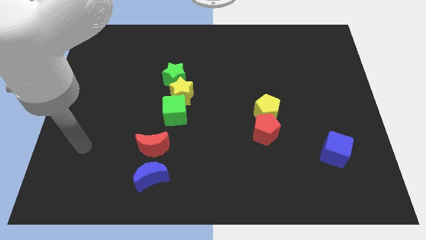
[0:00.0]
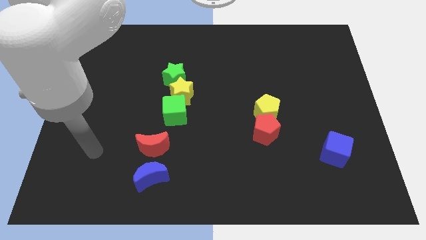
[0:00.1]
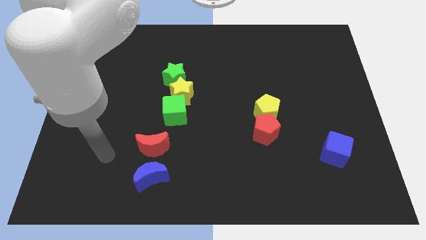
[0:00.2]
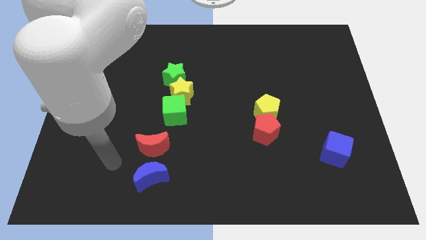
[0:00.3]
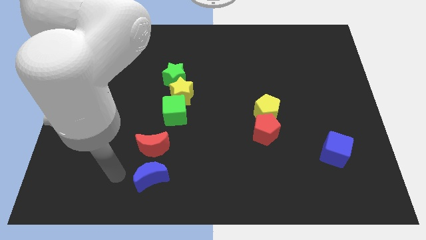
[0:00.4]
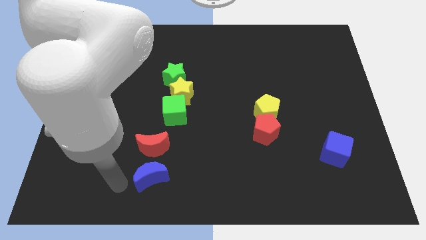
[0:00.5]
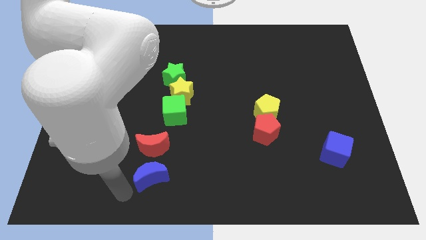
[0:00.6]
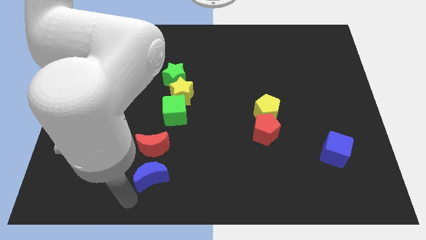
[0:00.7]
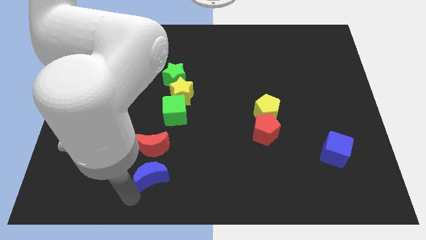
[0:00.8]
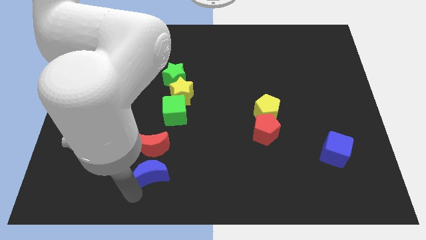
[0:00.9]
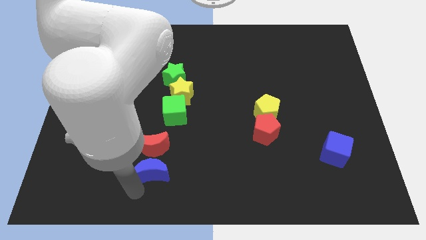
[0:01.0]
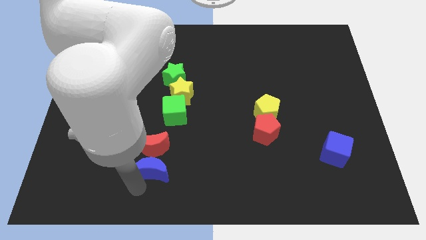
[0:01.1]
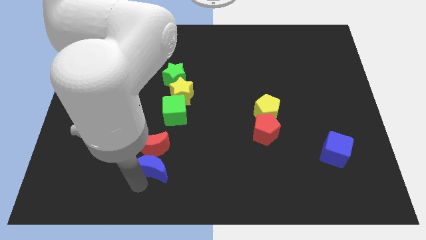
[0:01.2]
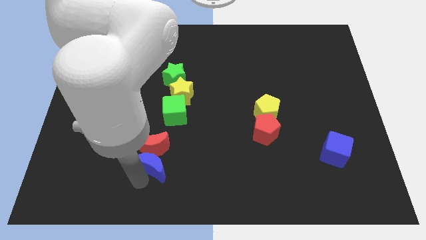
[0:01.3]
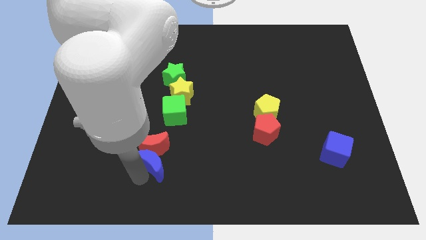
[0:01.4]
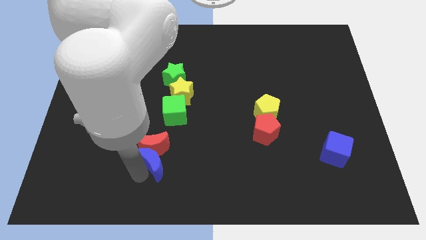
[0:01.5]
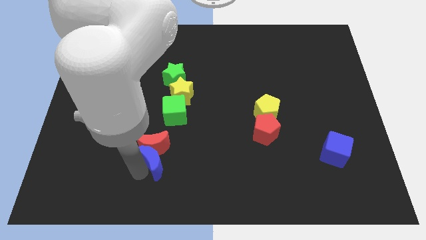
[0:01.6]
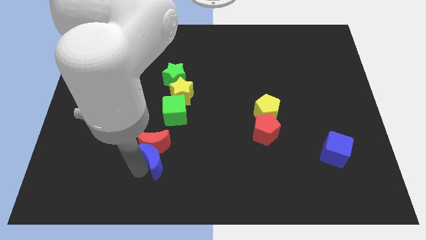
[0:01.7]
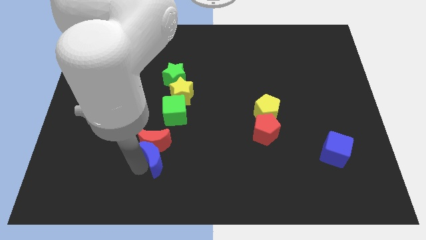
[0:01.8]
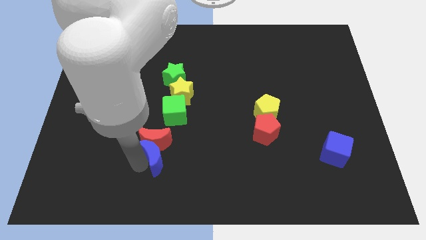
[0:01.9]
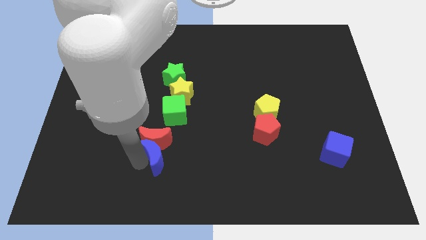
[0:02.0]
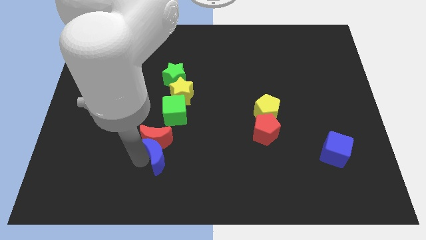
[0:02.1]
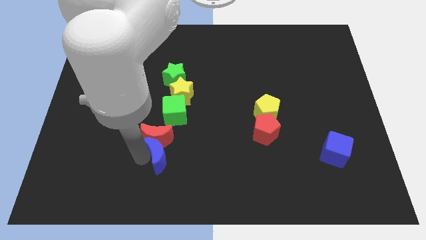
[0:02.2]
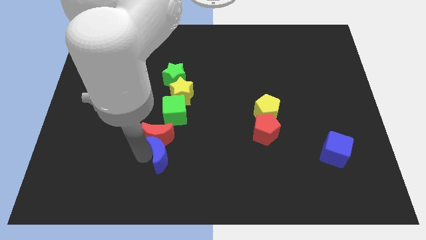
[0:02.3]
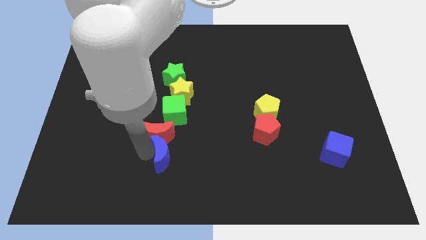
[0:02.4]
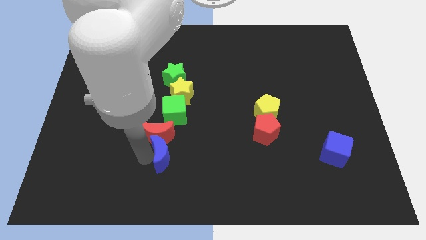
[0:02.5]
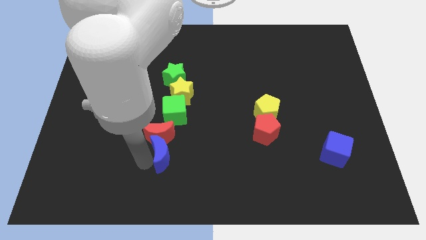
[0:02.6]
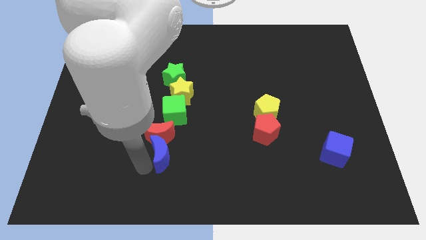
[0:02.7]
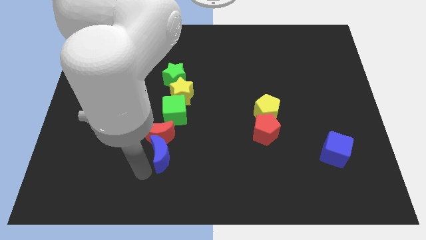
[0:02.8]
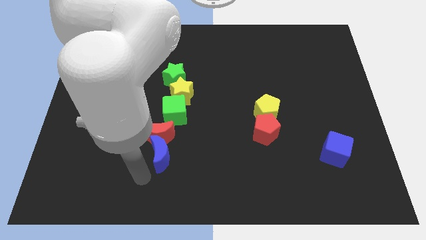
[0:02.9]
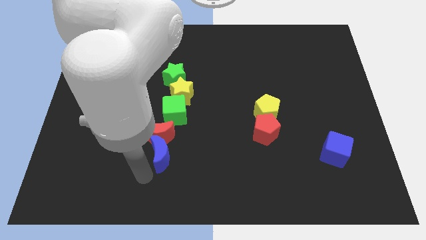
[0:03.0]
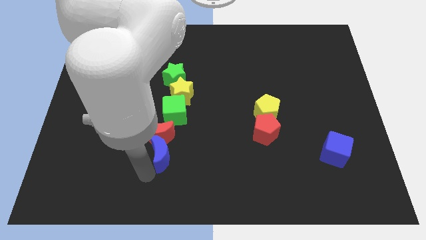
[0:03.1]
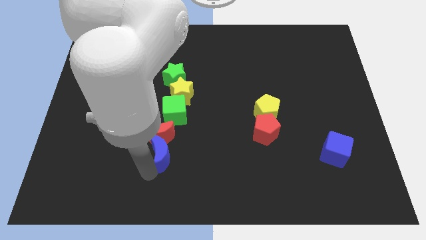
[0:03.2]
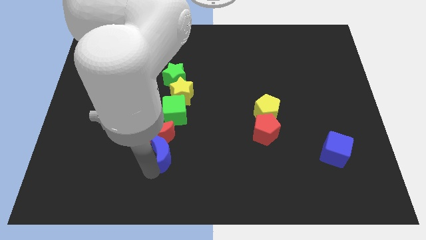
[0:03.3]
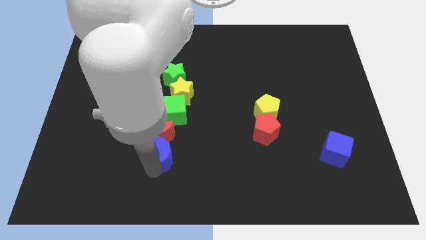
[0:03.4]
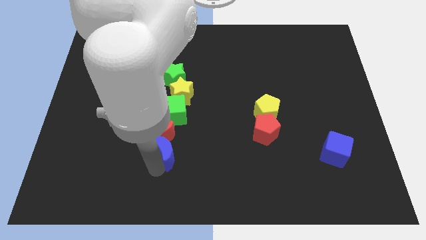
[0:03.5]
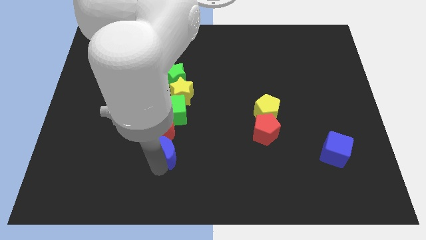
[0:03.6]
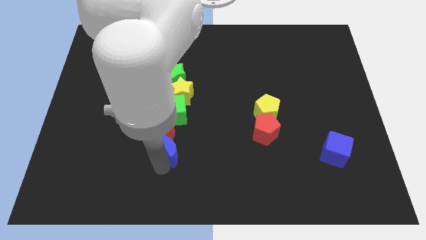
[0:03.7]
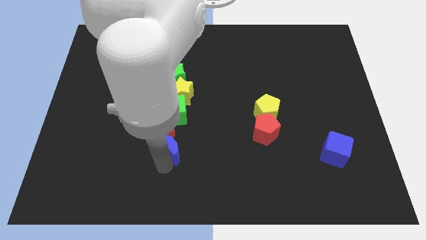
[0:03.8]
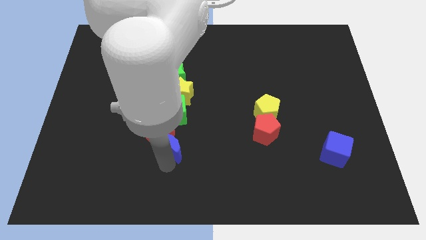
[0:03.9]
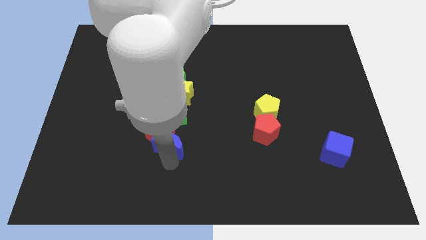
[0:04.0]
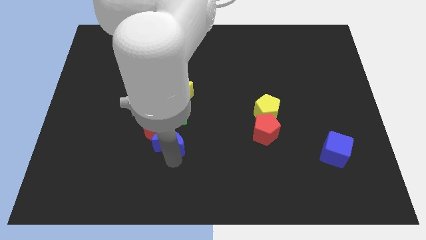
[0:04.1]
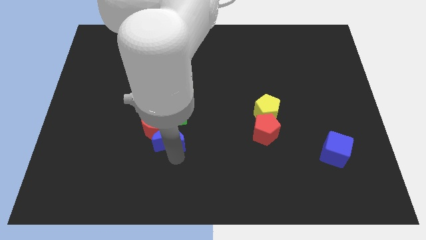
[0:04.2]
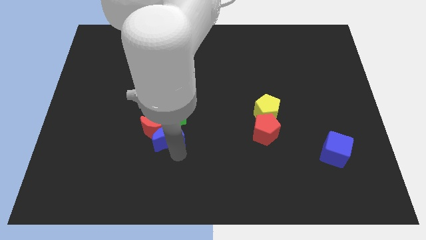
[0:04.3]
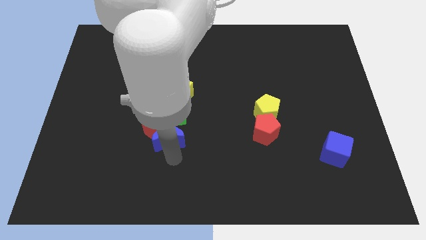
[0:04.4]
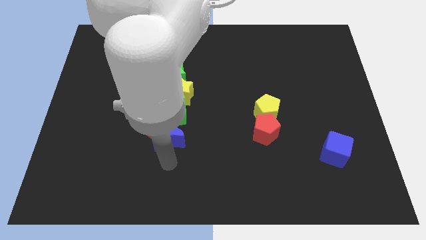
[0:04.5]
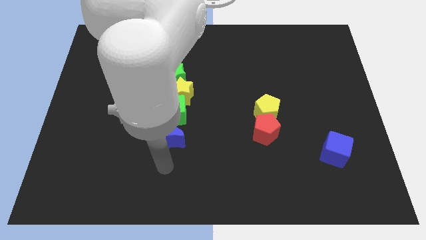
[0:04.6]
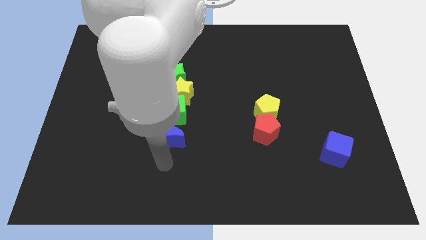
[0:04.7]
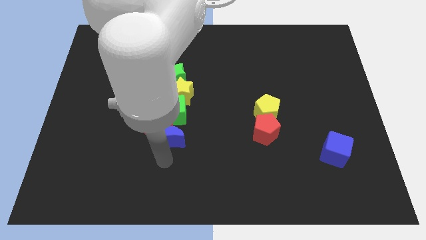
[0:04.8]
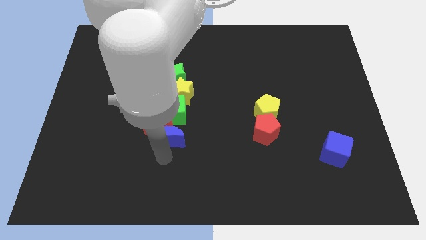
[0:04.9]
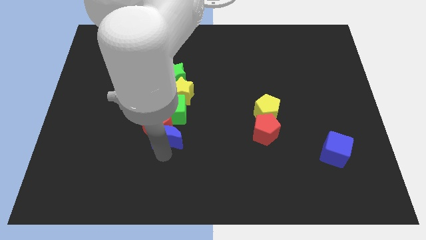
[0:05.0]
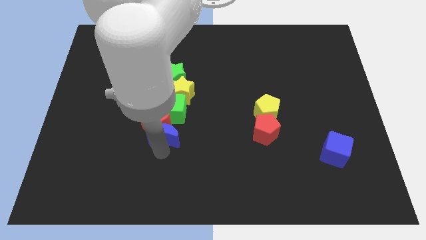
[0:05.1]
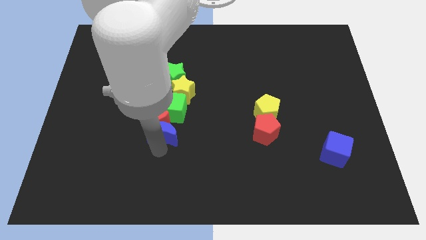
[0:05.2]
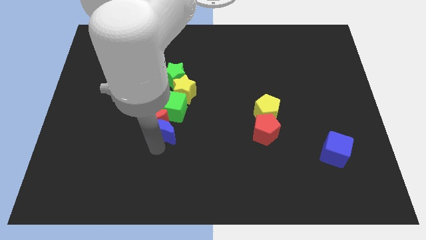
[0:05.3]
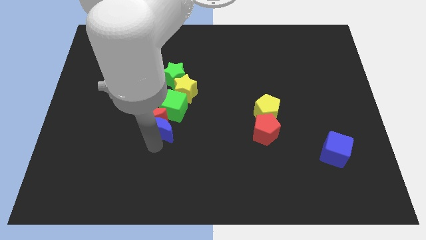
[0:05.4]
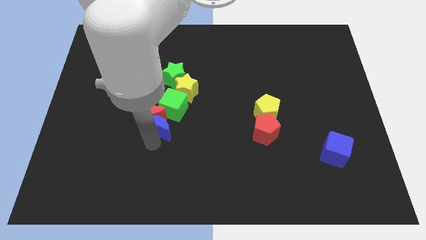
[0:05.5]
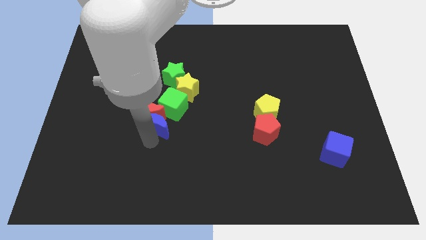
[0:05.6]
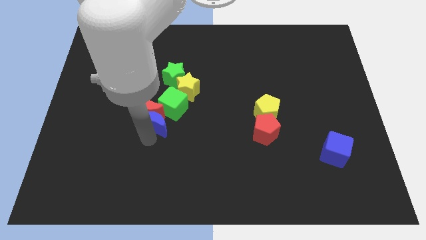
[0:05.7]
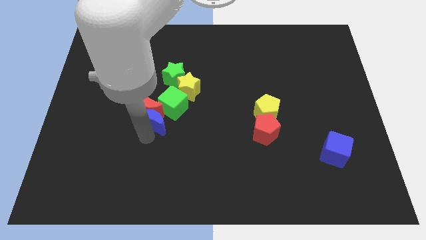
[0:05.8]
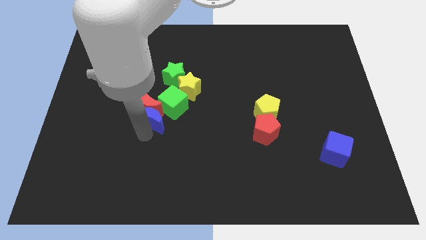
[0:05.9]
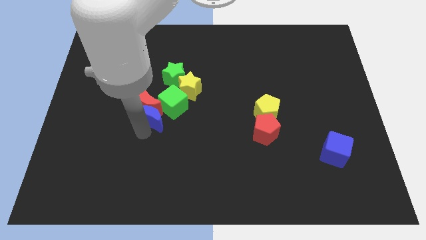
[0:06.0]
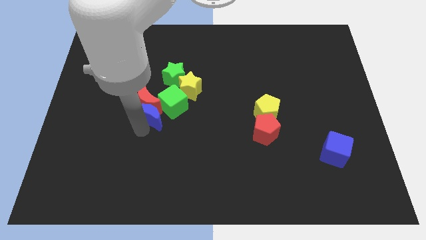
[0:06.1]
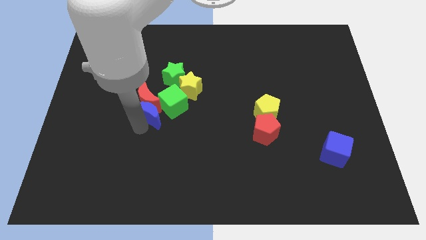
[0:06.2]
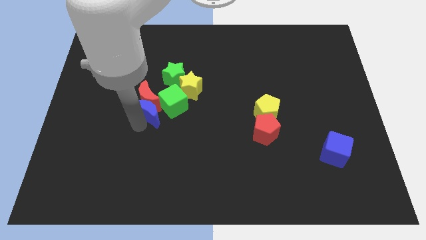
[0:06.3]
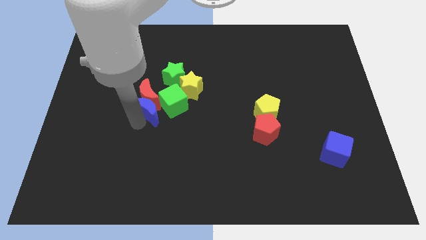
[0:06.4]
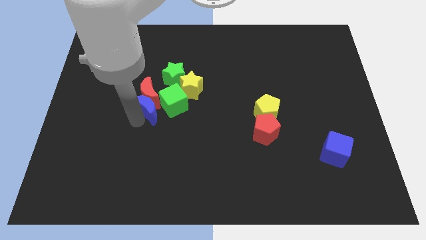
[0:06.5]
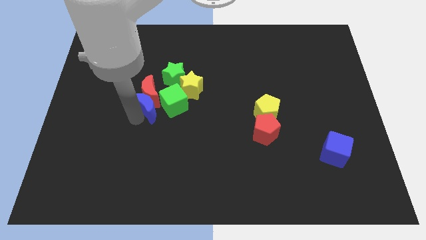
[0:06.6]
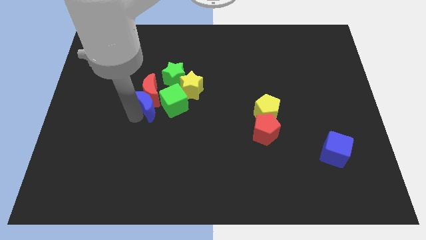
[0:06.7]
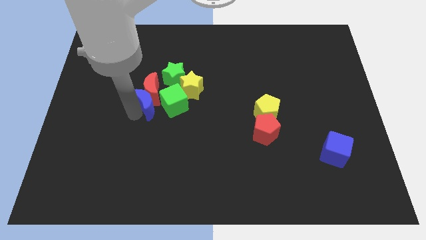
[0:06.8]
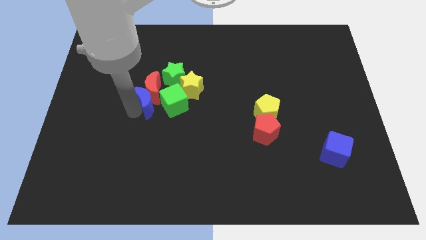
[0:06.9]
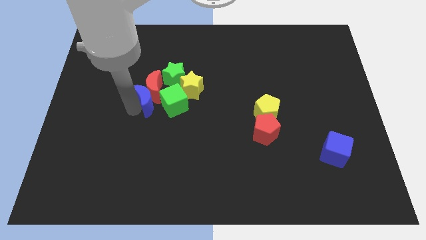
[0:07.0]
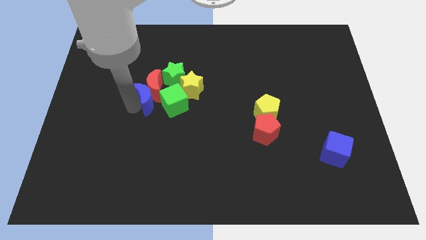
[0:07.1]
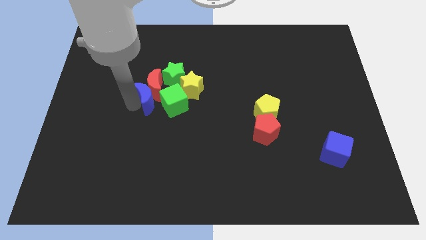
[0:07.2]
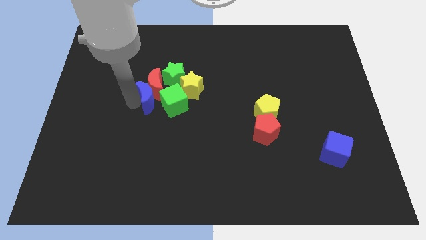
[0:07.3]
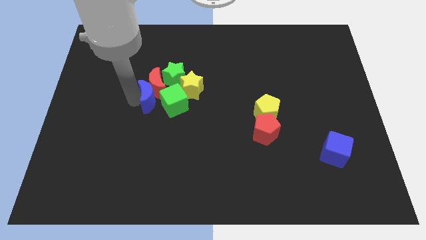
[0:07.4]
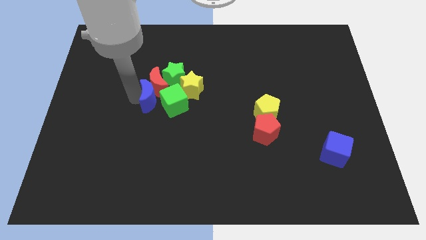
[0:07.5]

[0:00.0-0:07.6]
move the blue moon towards the green cube

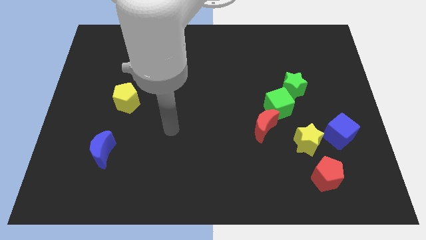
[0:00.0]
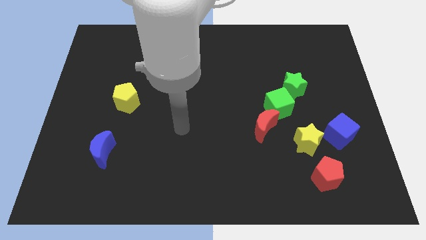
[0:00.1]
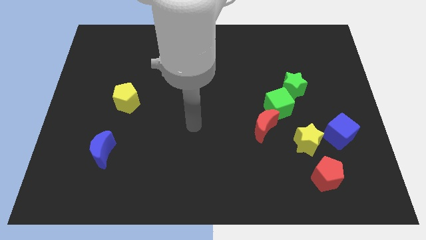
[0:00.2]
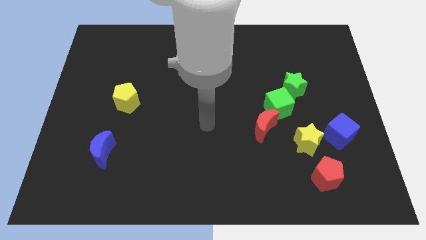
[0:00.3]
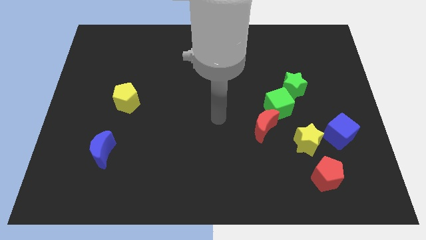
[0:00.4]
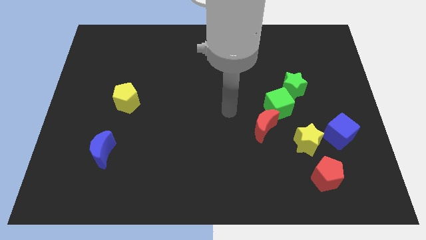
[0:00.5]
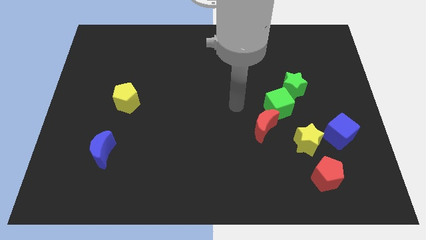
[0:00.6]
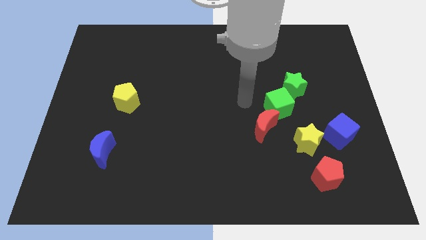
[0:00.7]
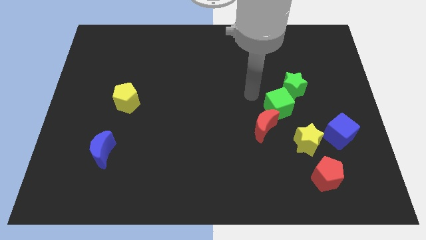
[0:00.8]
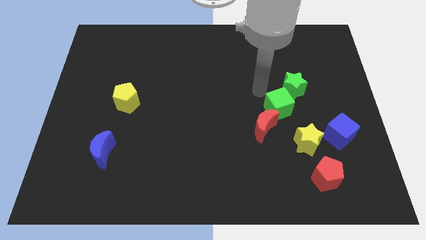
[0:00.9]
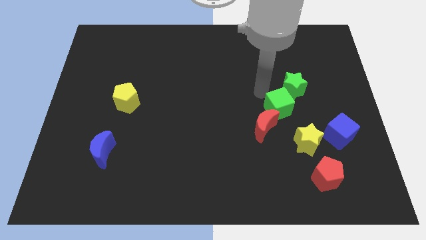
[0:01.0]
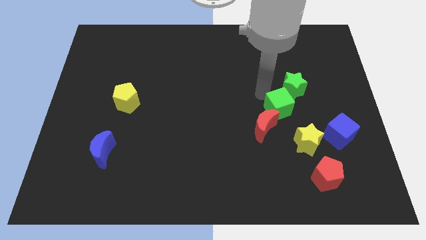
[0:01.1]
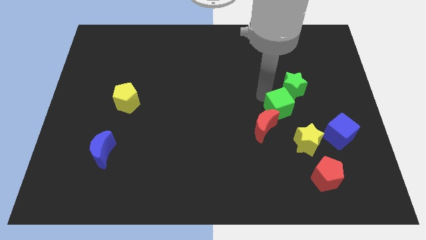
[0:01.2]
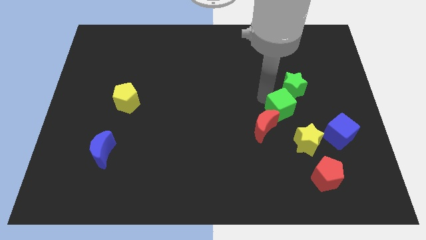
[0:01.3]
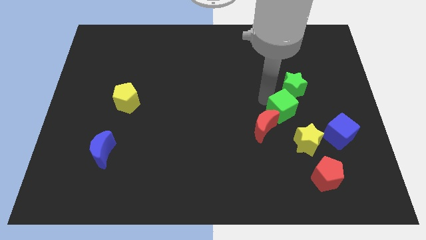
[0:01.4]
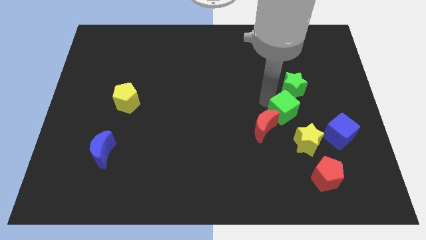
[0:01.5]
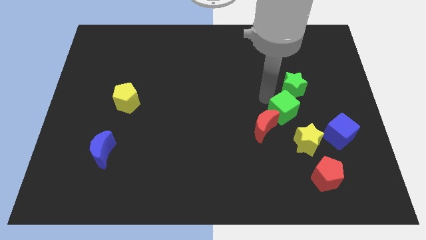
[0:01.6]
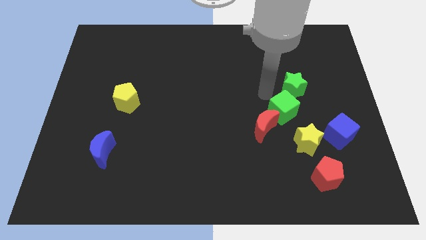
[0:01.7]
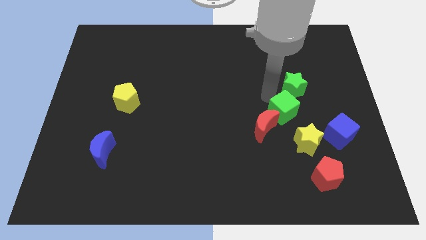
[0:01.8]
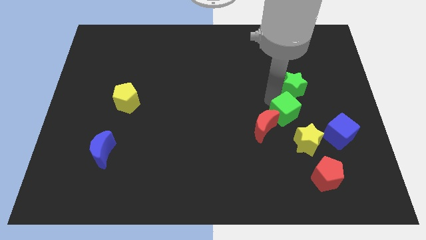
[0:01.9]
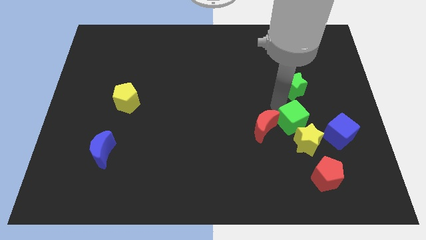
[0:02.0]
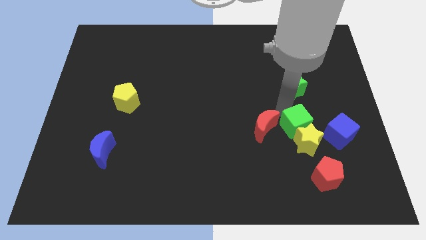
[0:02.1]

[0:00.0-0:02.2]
move the green cube to the yellow star
